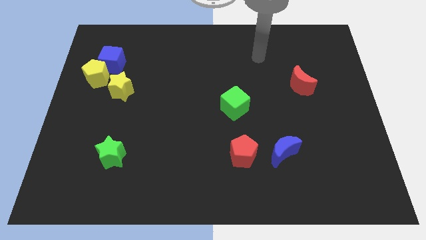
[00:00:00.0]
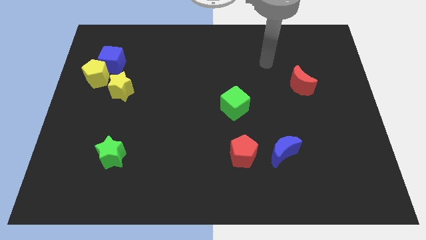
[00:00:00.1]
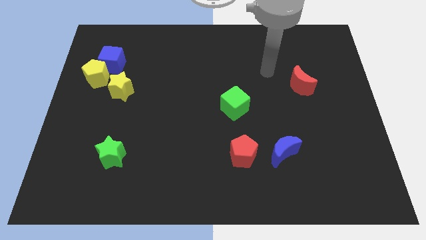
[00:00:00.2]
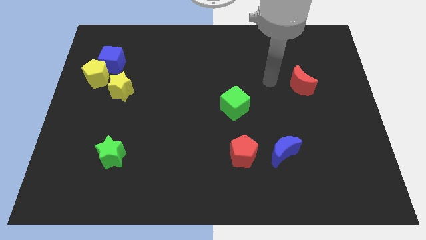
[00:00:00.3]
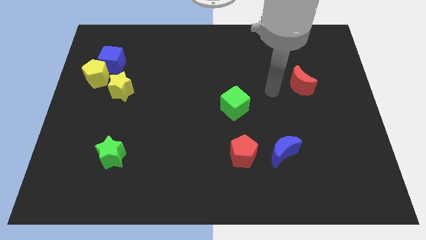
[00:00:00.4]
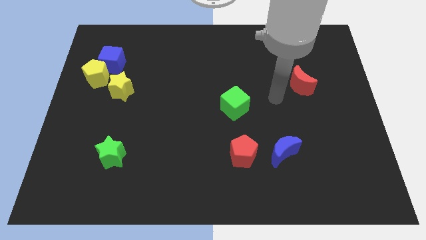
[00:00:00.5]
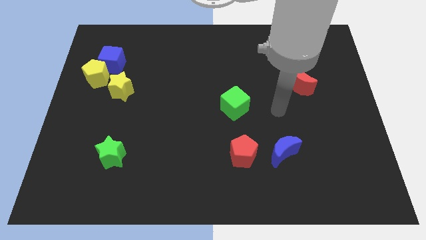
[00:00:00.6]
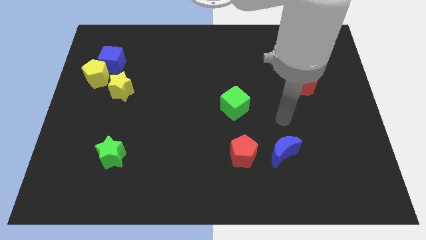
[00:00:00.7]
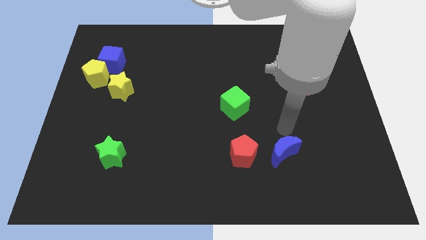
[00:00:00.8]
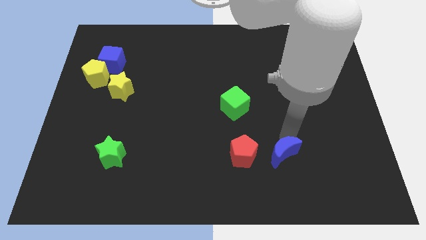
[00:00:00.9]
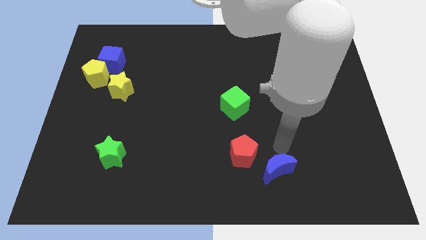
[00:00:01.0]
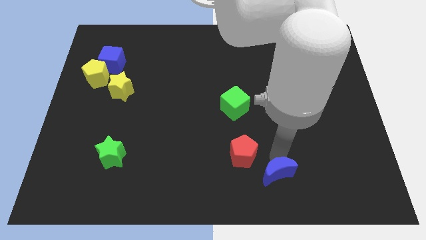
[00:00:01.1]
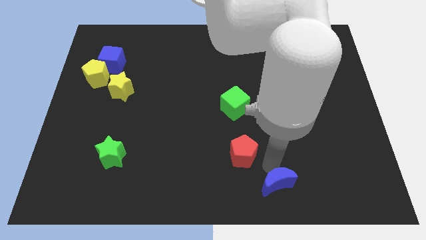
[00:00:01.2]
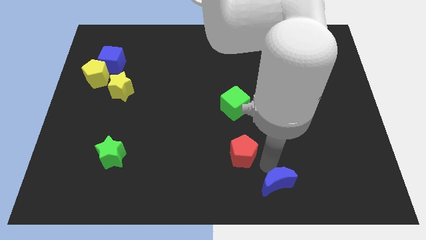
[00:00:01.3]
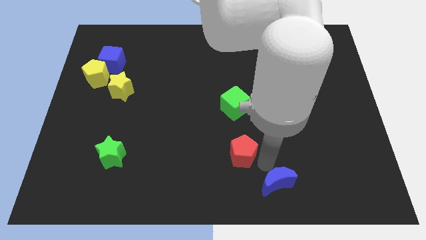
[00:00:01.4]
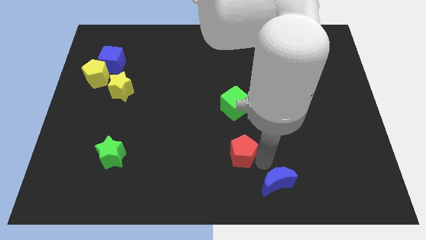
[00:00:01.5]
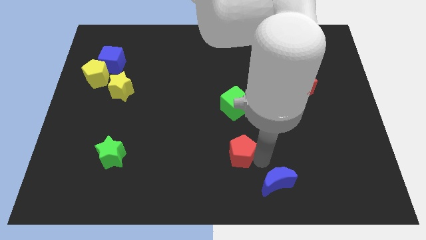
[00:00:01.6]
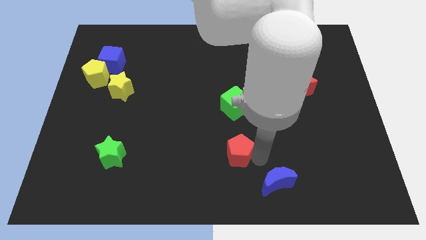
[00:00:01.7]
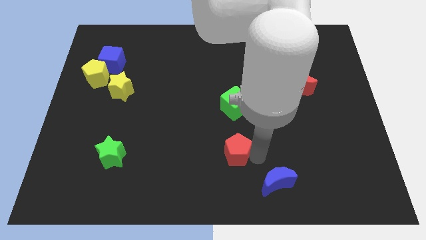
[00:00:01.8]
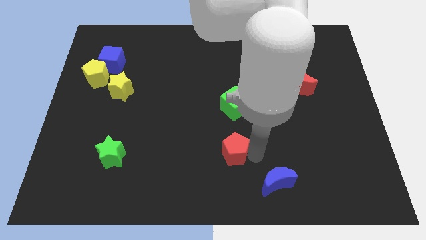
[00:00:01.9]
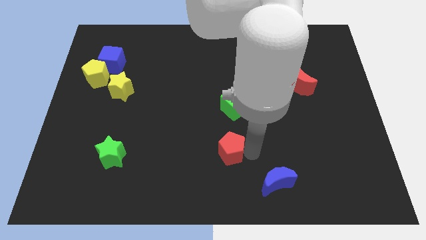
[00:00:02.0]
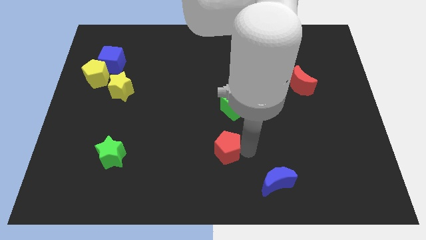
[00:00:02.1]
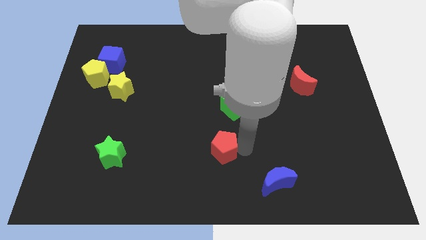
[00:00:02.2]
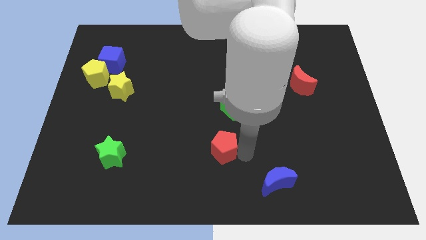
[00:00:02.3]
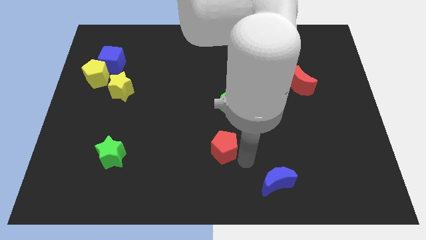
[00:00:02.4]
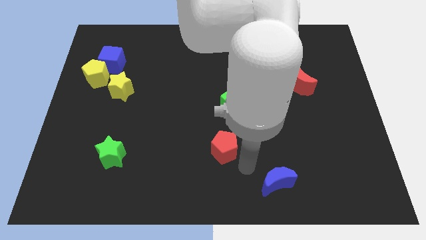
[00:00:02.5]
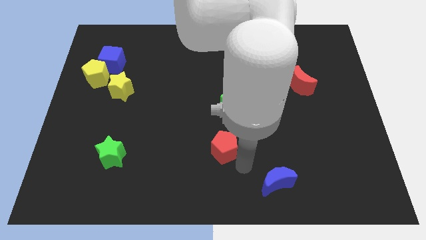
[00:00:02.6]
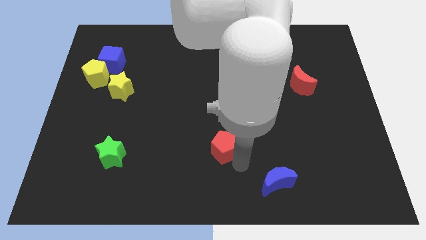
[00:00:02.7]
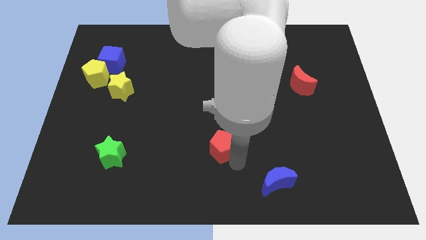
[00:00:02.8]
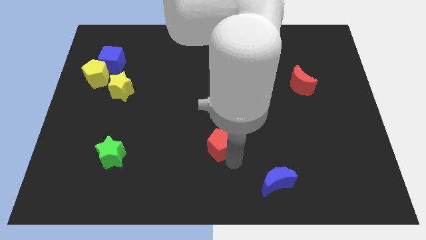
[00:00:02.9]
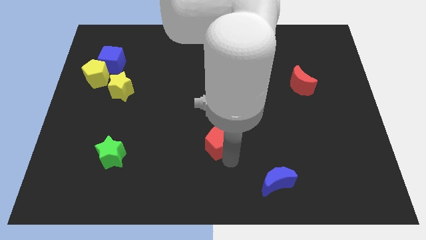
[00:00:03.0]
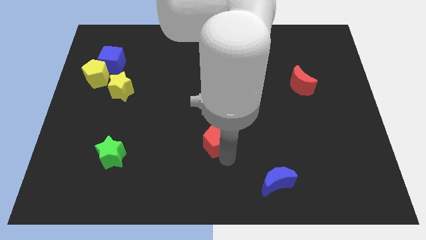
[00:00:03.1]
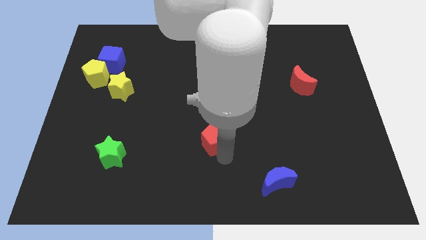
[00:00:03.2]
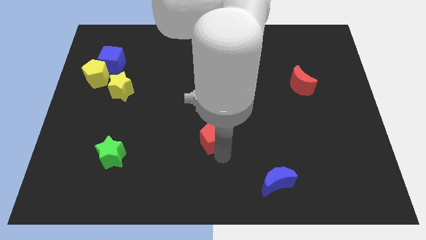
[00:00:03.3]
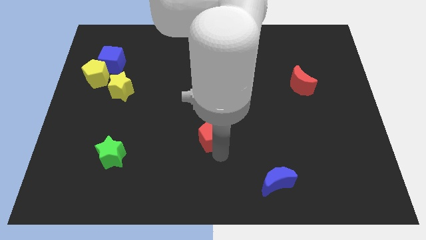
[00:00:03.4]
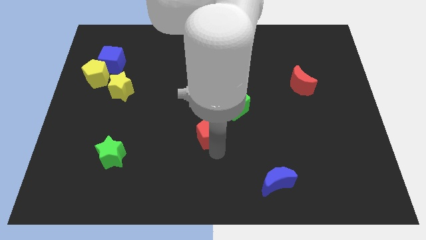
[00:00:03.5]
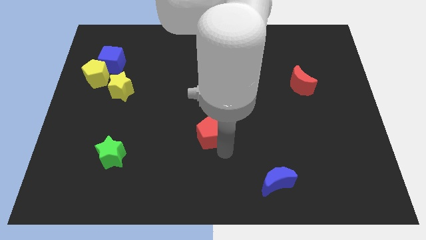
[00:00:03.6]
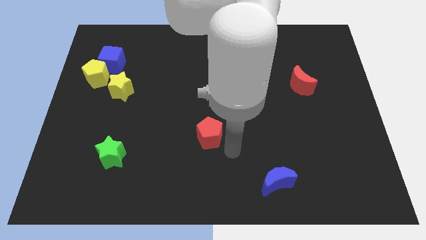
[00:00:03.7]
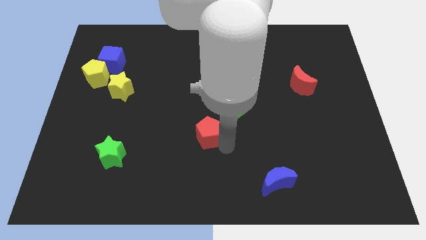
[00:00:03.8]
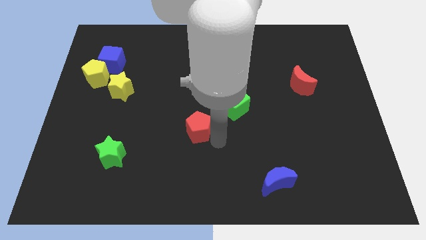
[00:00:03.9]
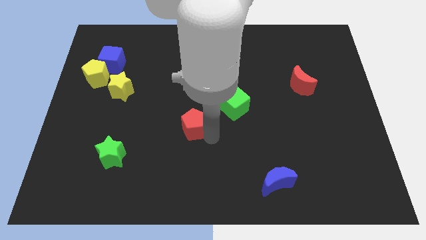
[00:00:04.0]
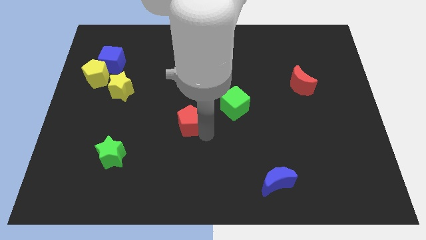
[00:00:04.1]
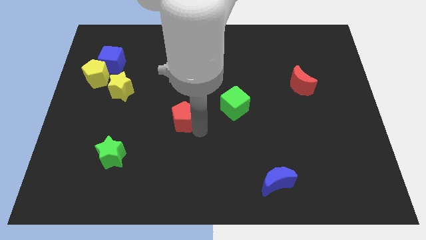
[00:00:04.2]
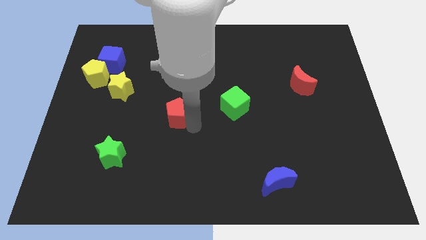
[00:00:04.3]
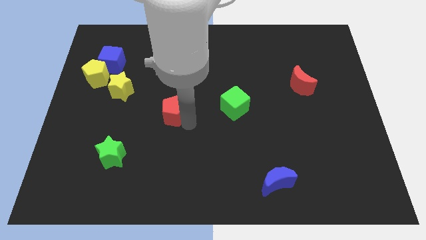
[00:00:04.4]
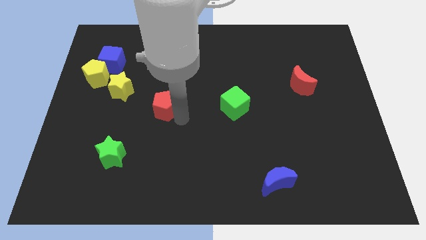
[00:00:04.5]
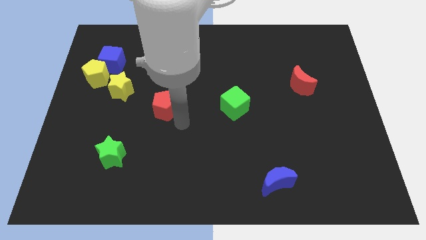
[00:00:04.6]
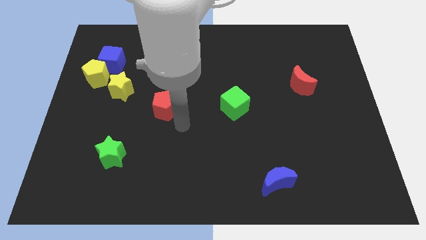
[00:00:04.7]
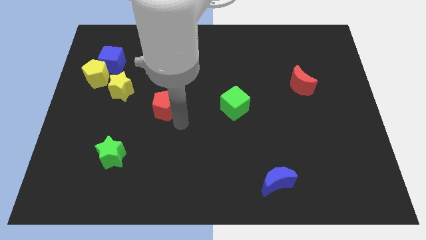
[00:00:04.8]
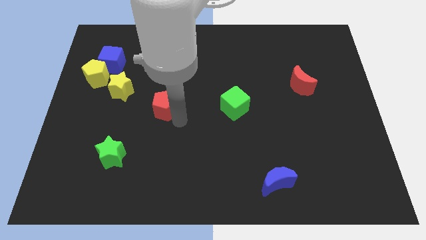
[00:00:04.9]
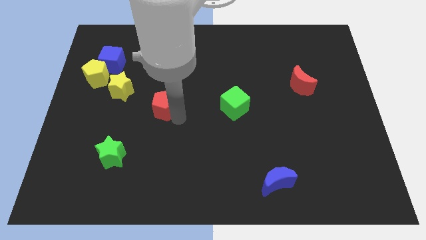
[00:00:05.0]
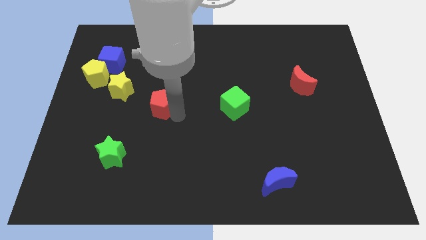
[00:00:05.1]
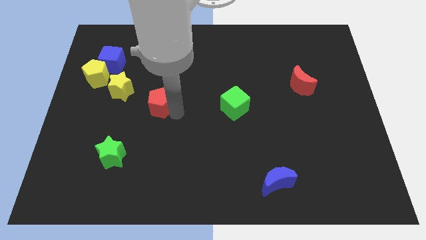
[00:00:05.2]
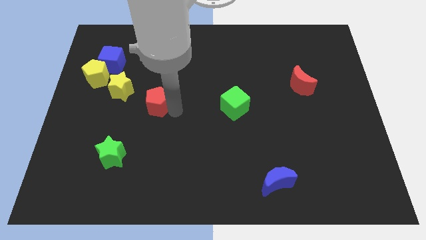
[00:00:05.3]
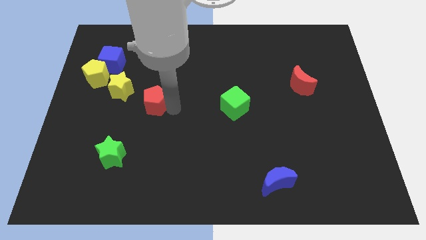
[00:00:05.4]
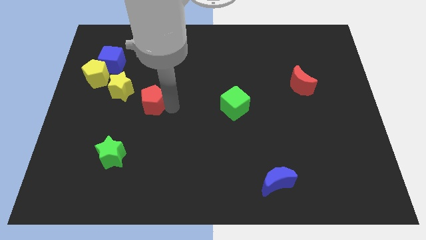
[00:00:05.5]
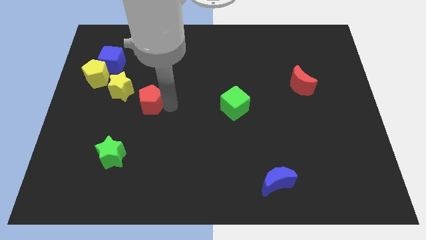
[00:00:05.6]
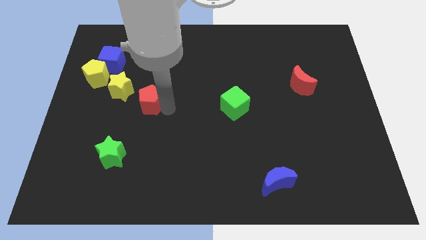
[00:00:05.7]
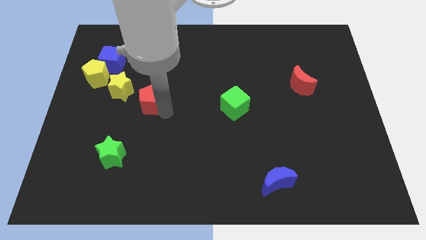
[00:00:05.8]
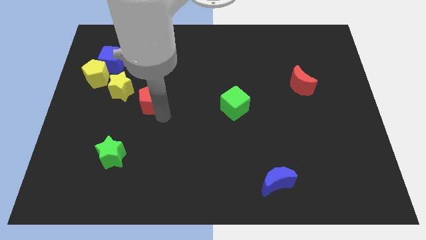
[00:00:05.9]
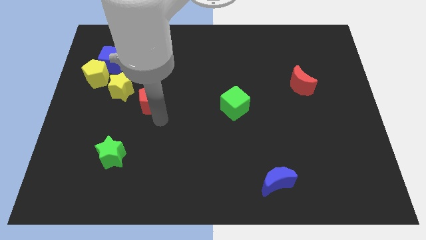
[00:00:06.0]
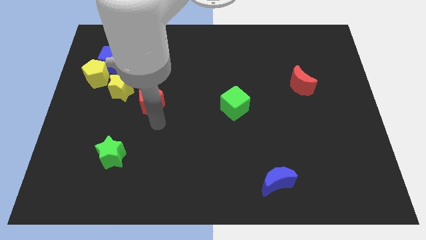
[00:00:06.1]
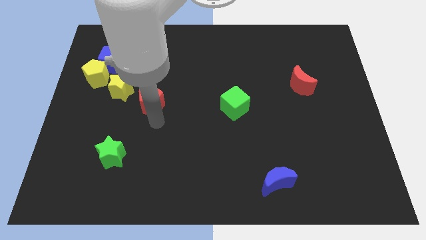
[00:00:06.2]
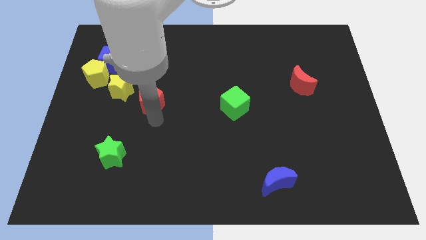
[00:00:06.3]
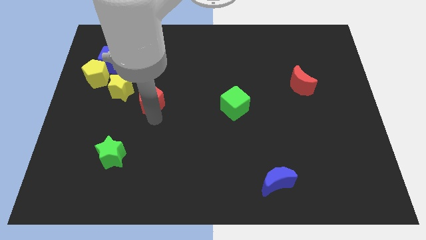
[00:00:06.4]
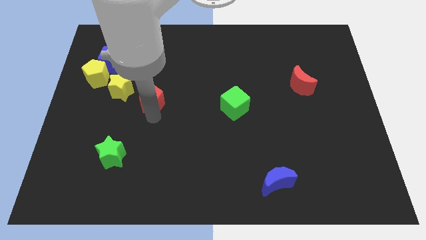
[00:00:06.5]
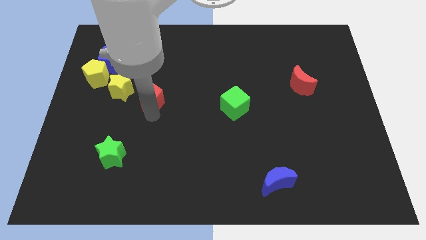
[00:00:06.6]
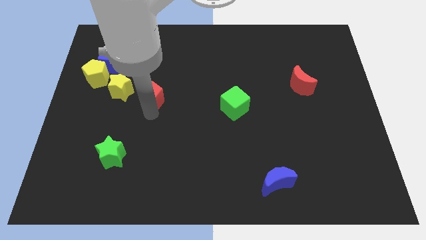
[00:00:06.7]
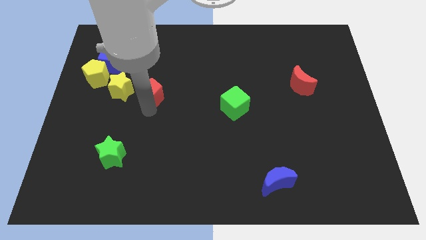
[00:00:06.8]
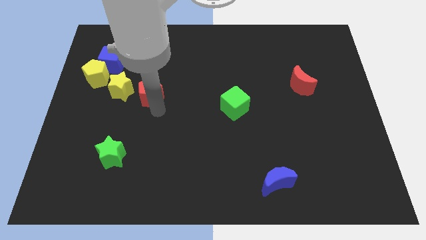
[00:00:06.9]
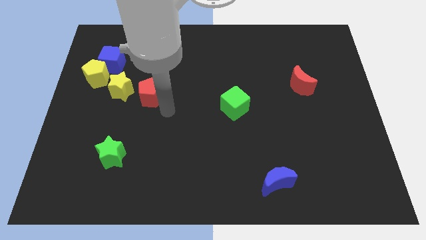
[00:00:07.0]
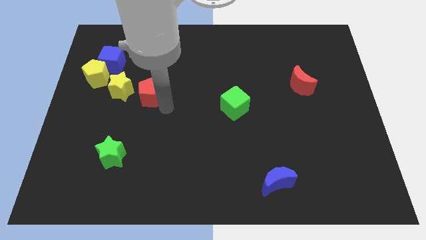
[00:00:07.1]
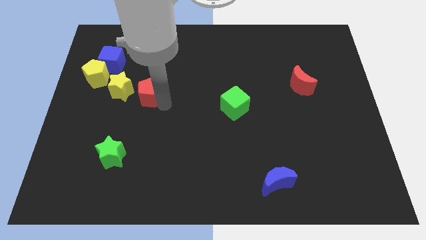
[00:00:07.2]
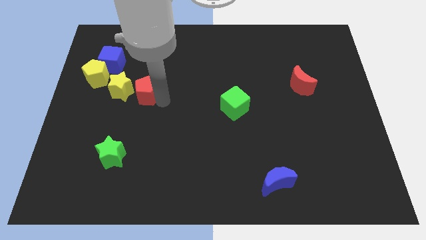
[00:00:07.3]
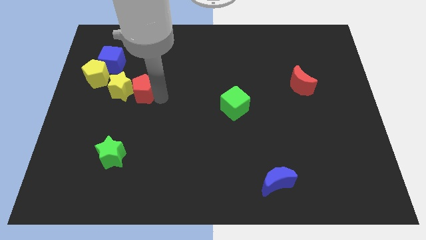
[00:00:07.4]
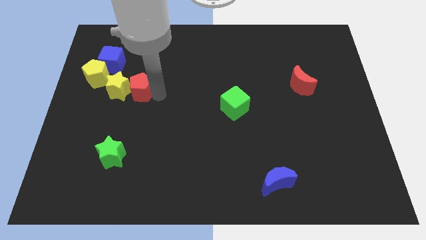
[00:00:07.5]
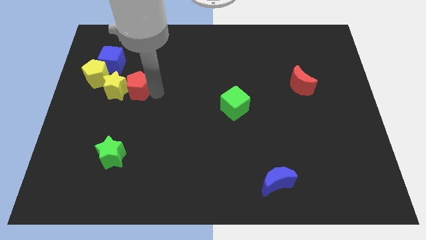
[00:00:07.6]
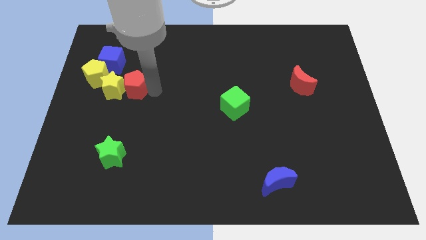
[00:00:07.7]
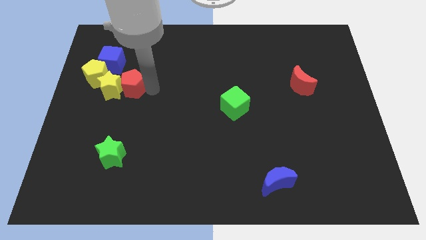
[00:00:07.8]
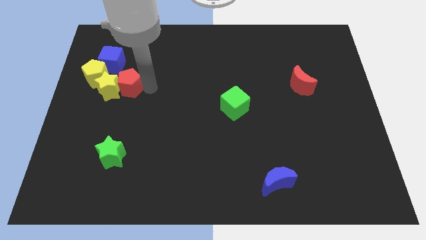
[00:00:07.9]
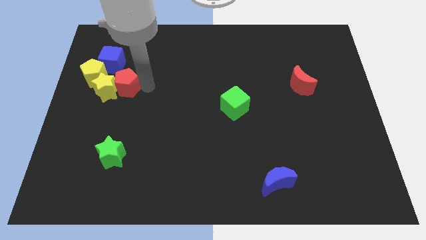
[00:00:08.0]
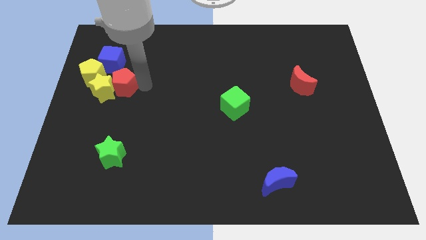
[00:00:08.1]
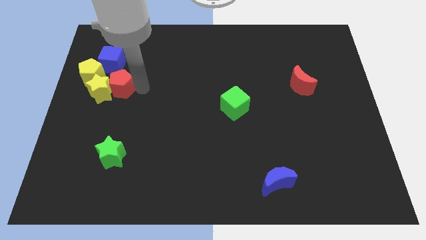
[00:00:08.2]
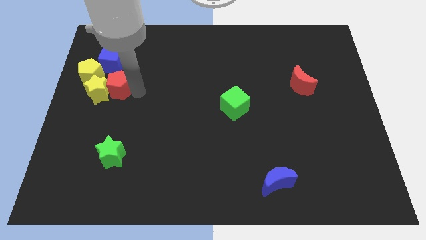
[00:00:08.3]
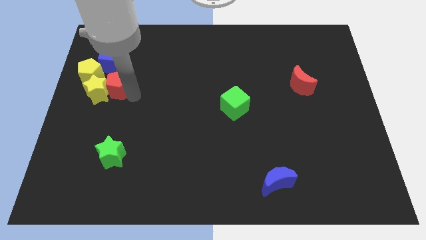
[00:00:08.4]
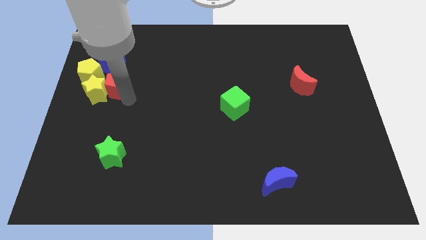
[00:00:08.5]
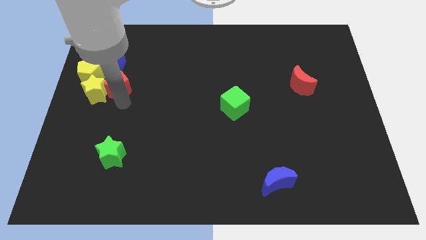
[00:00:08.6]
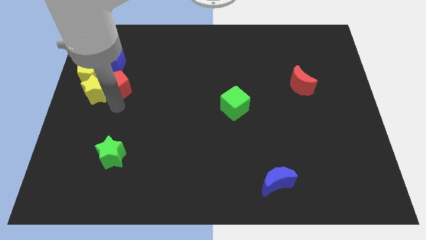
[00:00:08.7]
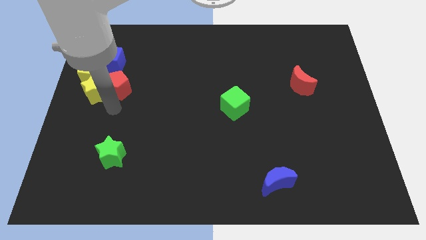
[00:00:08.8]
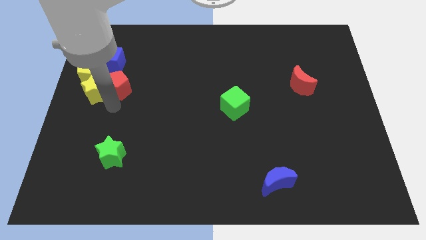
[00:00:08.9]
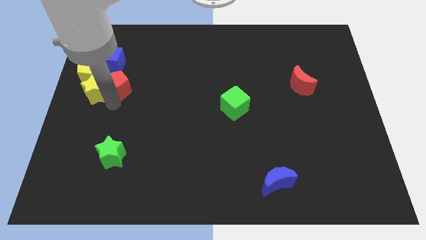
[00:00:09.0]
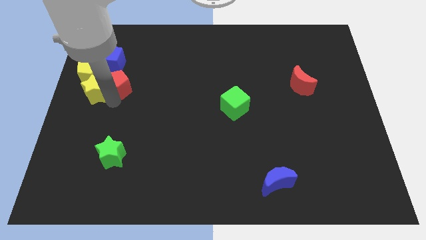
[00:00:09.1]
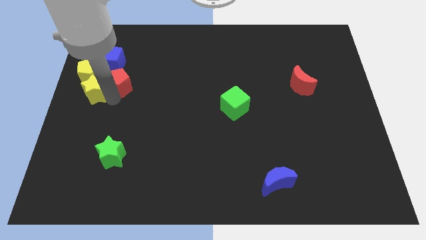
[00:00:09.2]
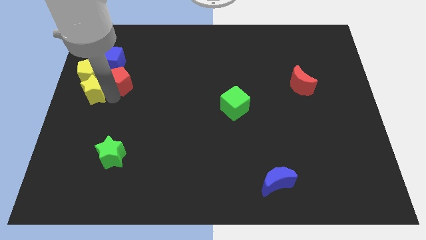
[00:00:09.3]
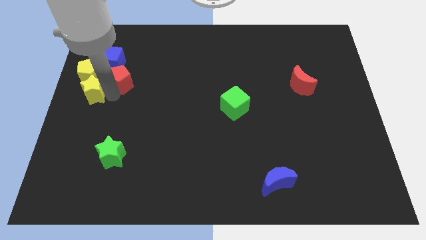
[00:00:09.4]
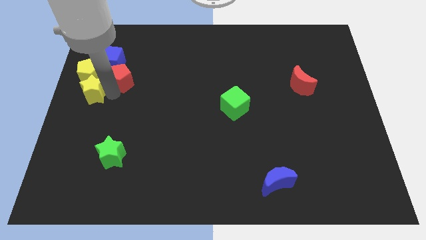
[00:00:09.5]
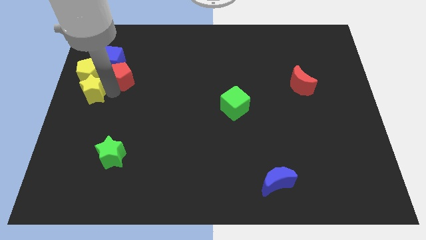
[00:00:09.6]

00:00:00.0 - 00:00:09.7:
push the red pentagon to the blue cube
